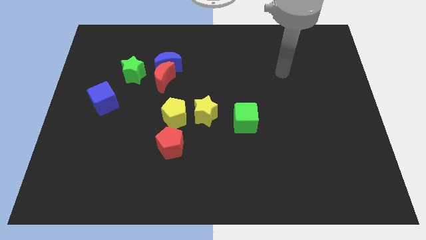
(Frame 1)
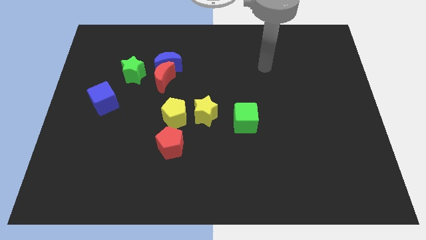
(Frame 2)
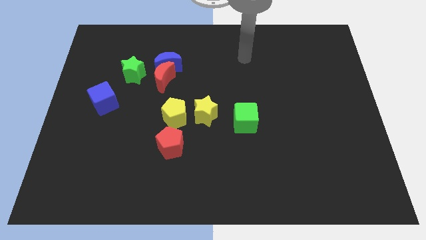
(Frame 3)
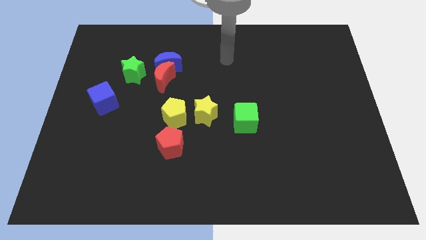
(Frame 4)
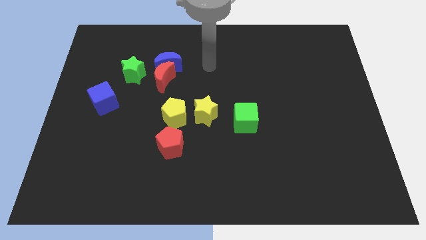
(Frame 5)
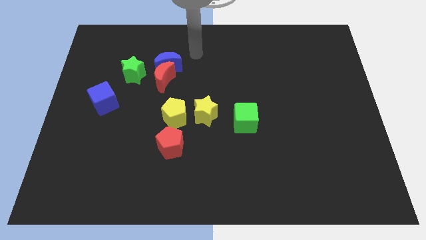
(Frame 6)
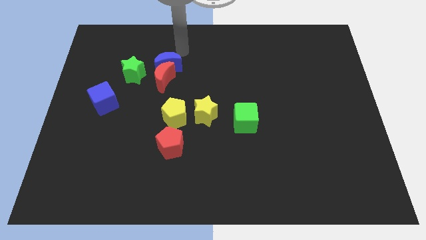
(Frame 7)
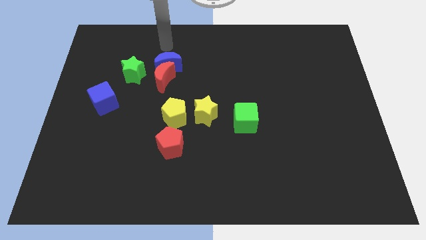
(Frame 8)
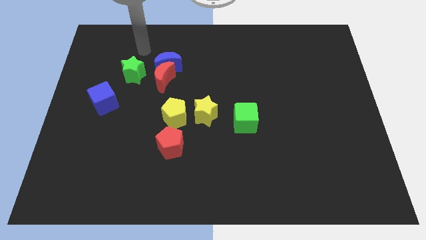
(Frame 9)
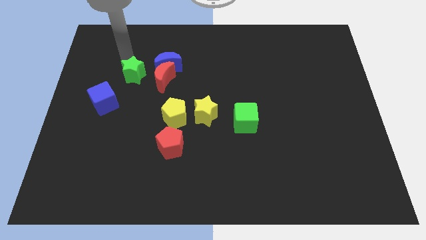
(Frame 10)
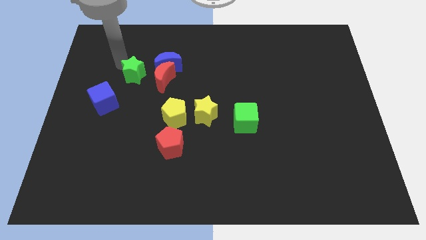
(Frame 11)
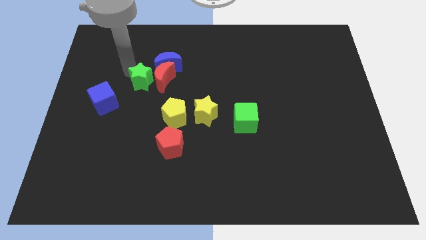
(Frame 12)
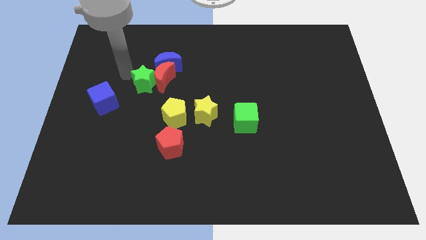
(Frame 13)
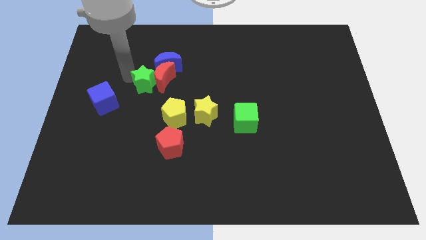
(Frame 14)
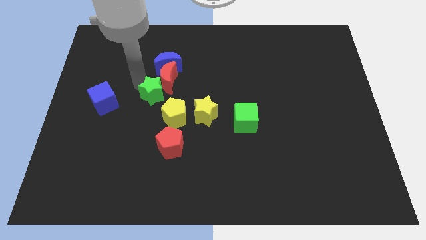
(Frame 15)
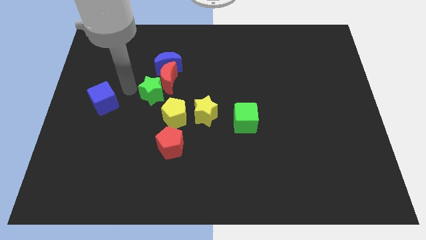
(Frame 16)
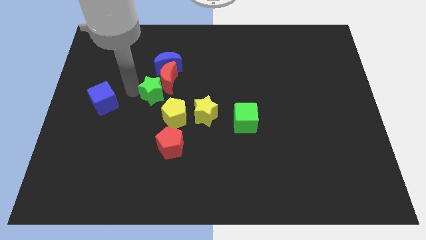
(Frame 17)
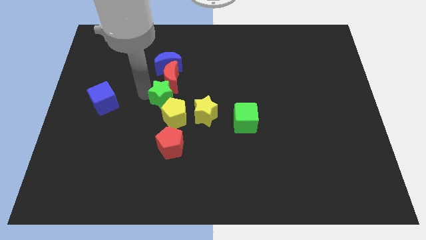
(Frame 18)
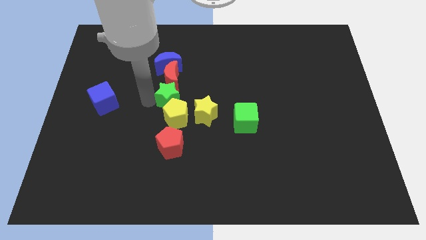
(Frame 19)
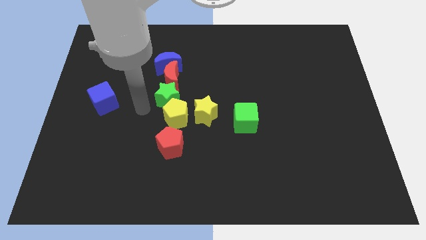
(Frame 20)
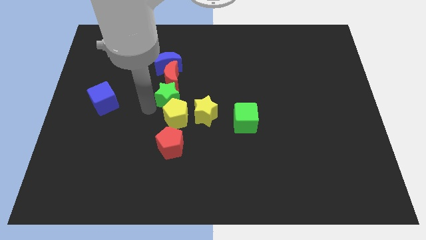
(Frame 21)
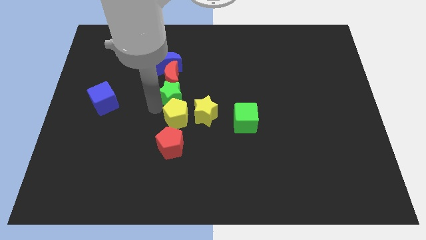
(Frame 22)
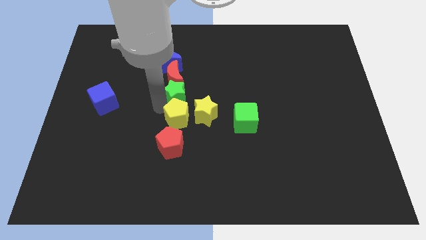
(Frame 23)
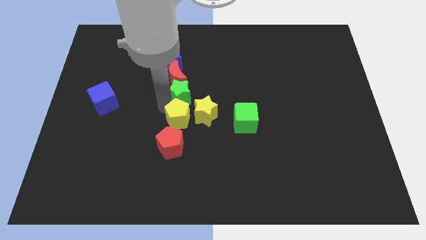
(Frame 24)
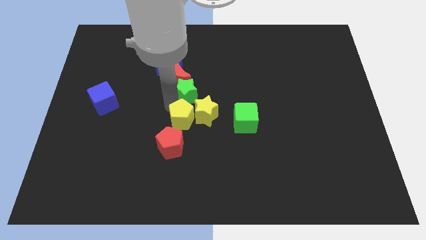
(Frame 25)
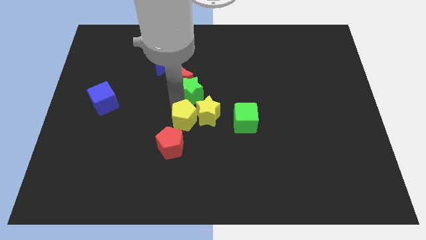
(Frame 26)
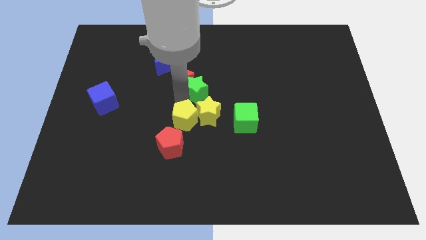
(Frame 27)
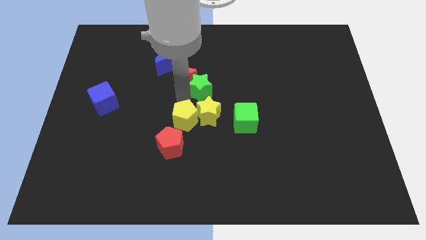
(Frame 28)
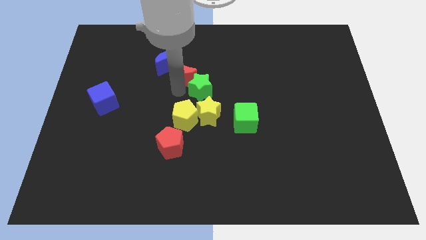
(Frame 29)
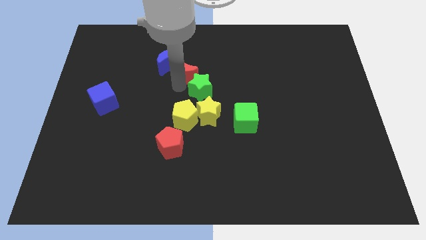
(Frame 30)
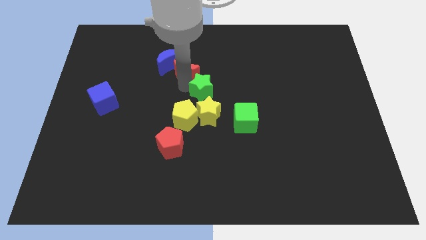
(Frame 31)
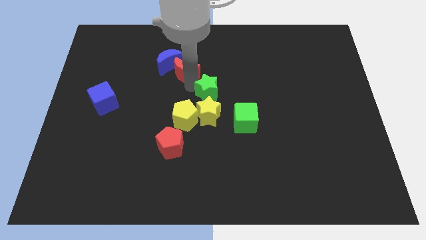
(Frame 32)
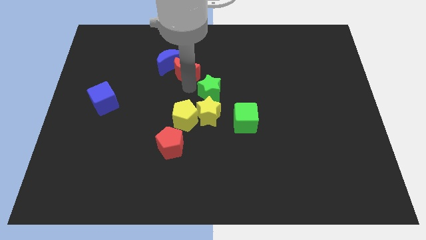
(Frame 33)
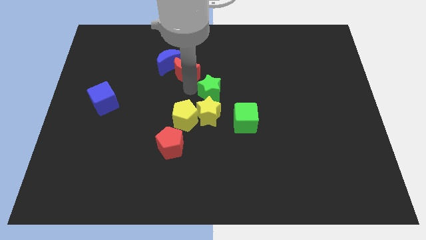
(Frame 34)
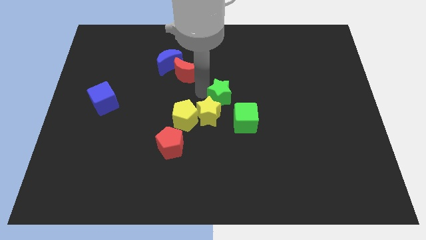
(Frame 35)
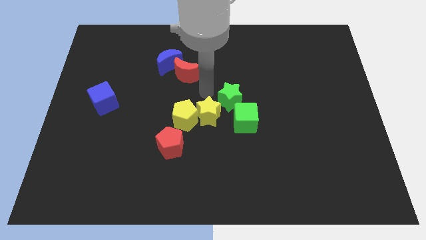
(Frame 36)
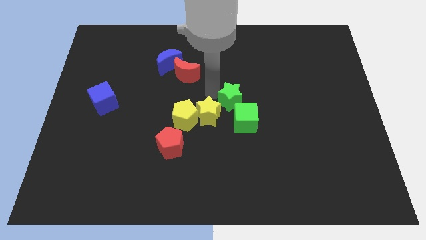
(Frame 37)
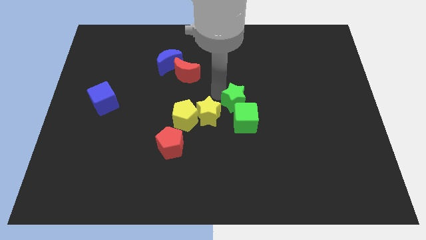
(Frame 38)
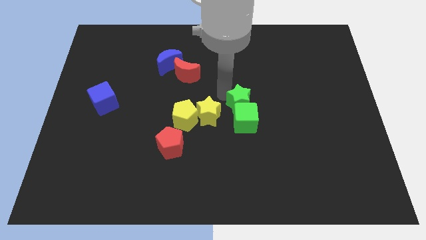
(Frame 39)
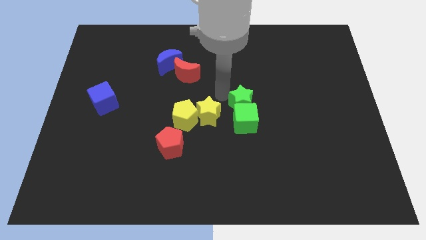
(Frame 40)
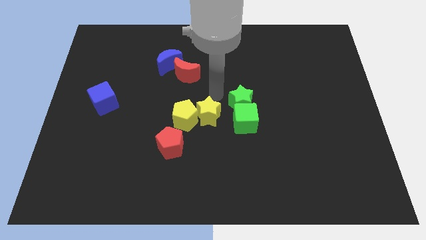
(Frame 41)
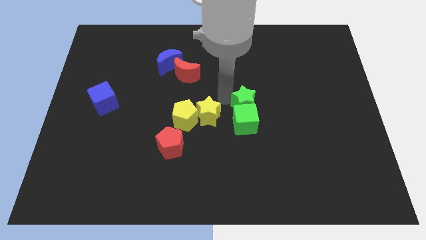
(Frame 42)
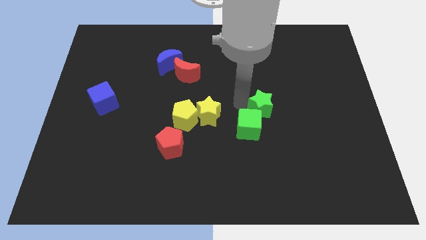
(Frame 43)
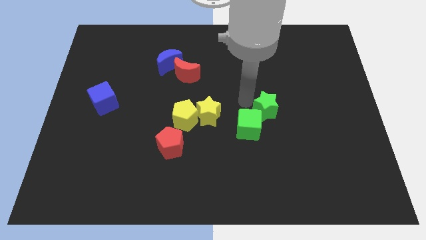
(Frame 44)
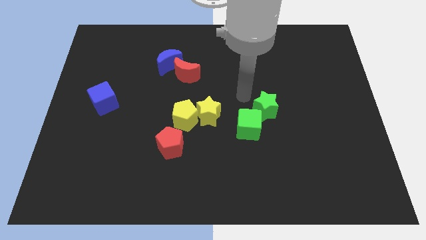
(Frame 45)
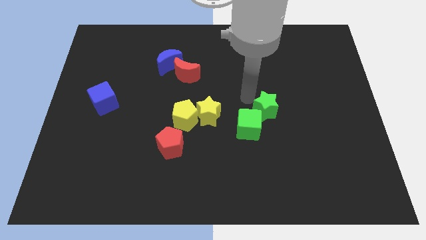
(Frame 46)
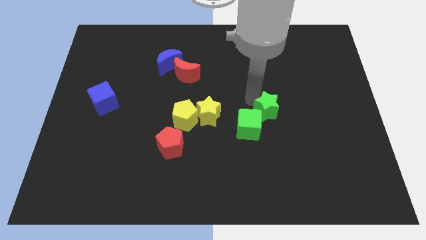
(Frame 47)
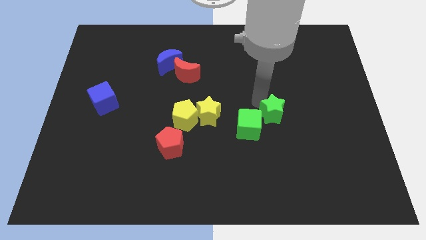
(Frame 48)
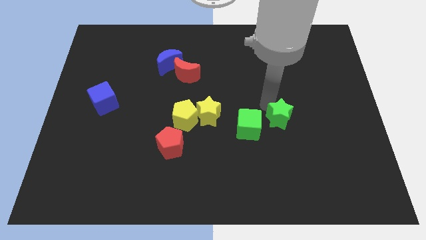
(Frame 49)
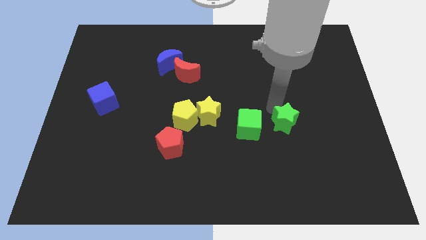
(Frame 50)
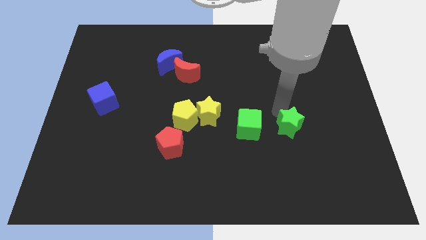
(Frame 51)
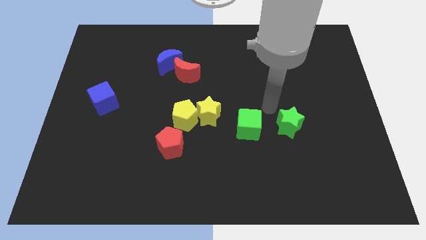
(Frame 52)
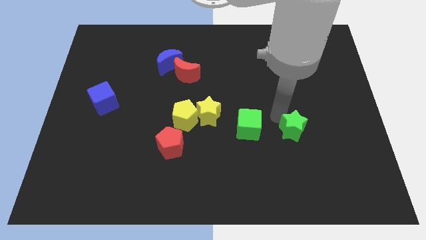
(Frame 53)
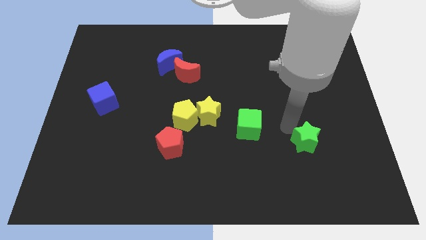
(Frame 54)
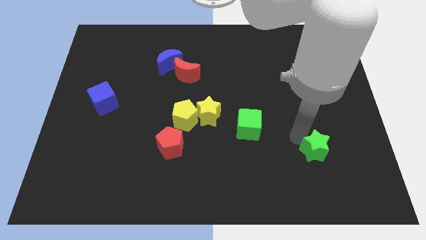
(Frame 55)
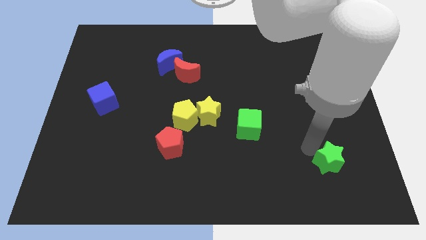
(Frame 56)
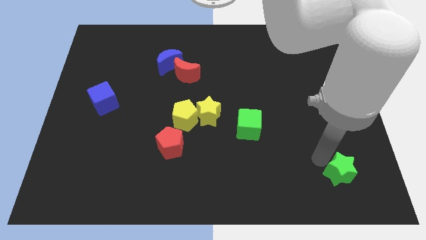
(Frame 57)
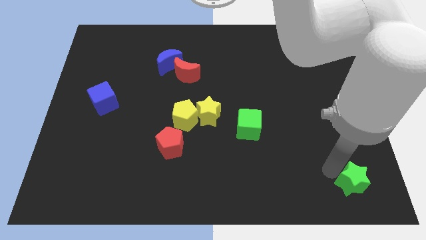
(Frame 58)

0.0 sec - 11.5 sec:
move the green star to the bottom right corner

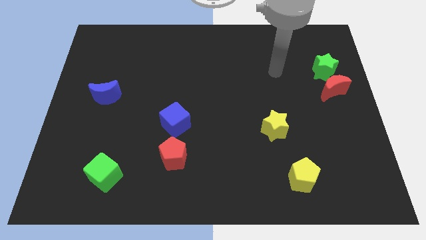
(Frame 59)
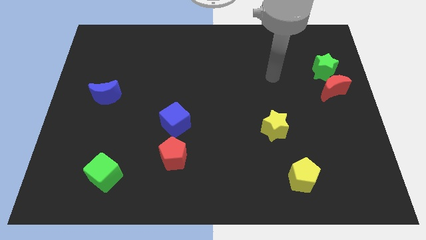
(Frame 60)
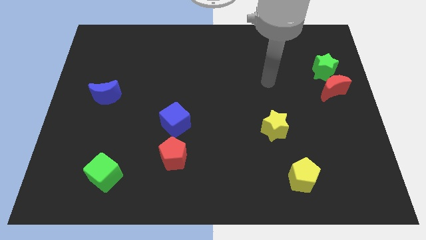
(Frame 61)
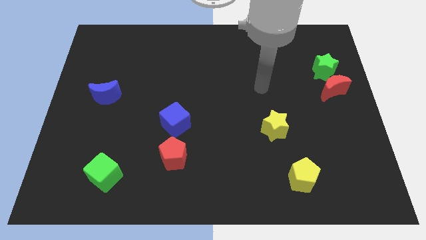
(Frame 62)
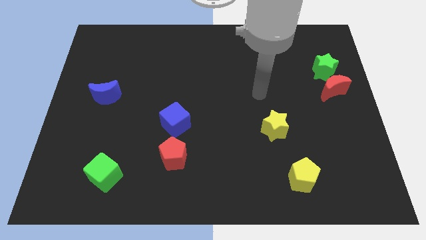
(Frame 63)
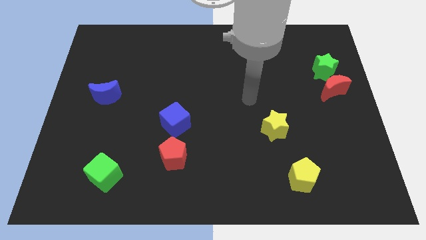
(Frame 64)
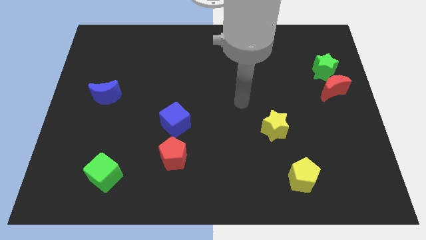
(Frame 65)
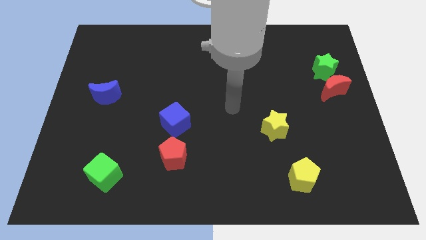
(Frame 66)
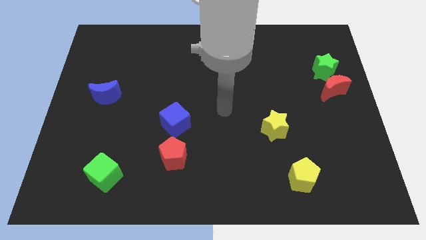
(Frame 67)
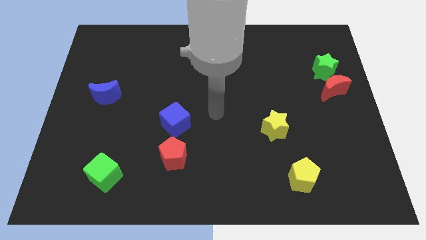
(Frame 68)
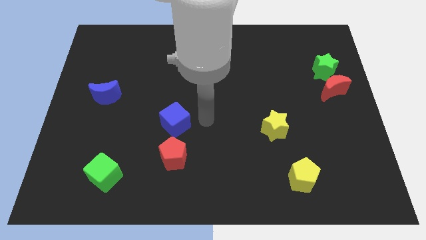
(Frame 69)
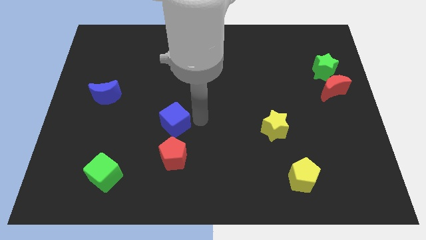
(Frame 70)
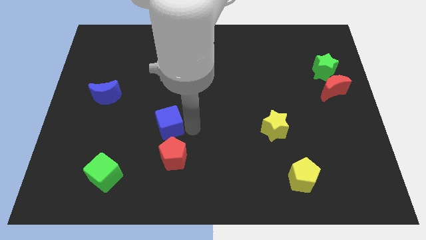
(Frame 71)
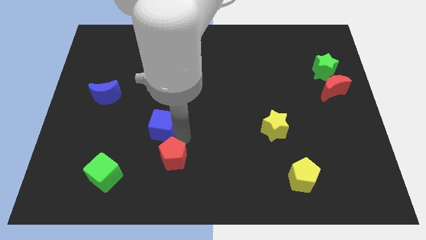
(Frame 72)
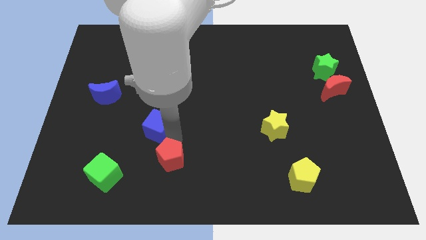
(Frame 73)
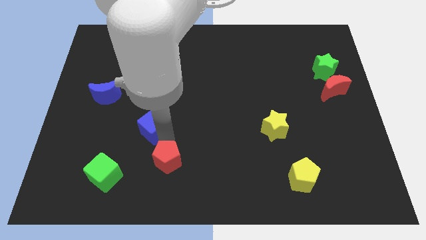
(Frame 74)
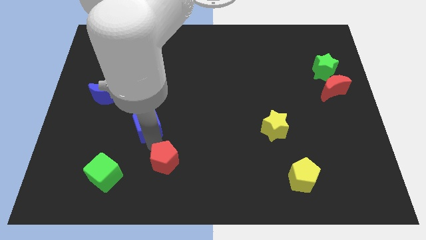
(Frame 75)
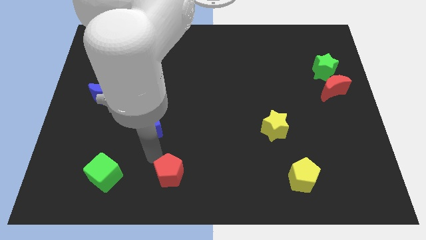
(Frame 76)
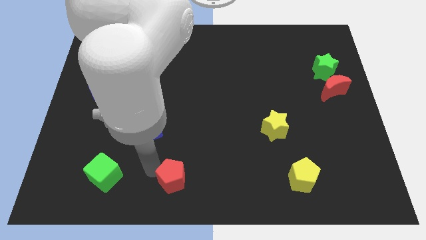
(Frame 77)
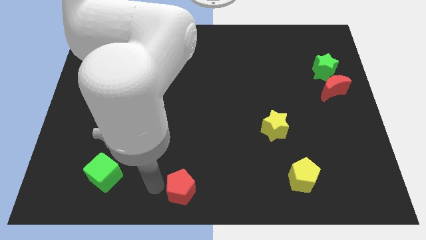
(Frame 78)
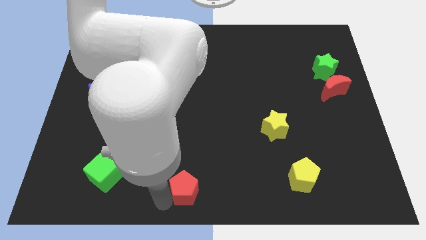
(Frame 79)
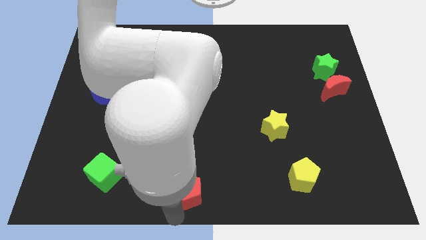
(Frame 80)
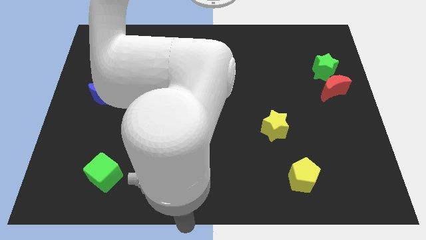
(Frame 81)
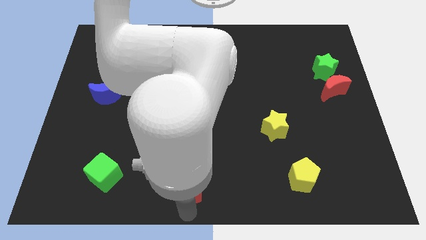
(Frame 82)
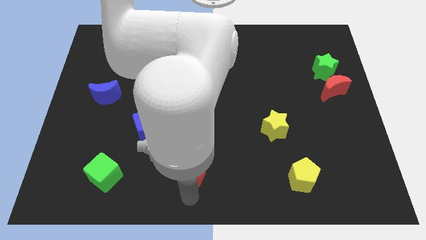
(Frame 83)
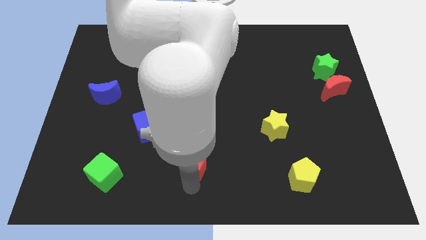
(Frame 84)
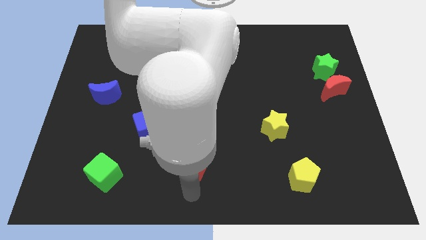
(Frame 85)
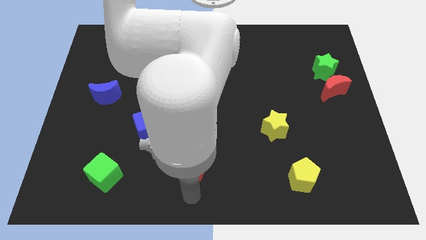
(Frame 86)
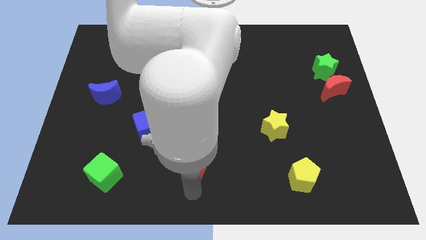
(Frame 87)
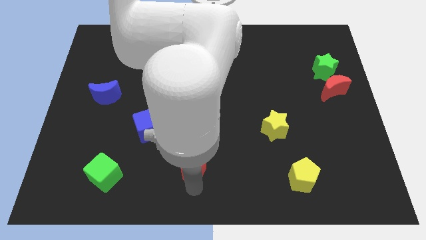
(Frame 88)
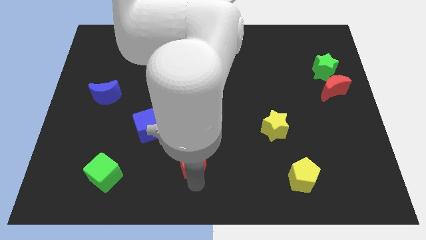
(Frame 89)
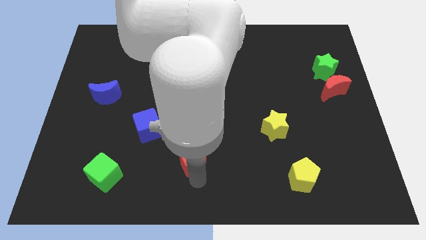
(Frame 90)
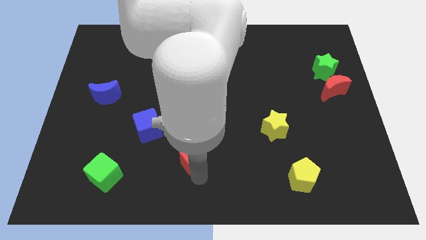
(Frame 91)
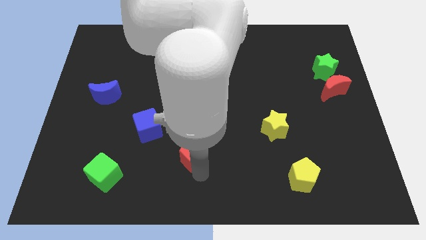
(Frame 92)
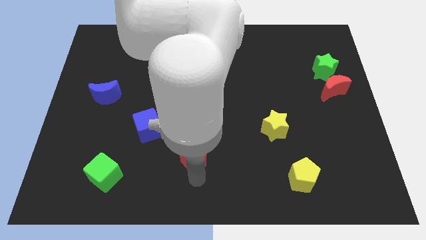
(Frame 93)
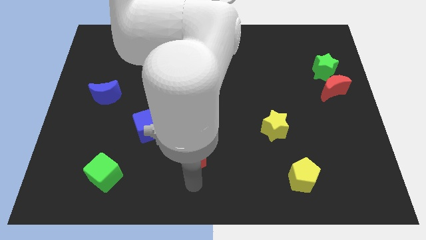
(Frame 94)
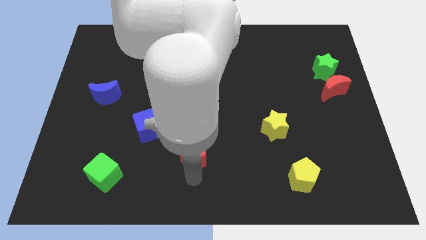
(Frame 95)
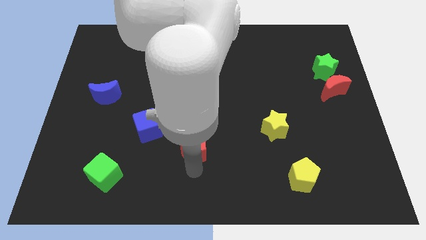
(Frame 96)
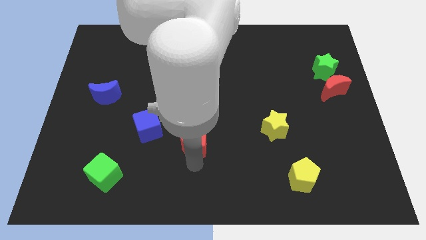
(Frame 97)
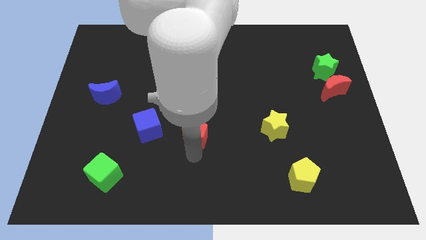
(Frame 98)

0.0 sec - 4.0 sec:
move the red pentagon to the center
